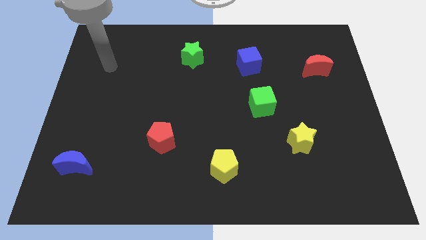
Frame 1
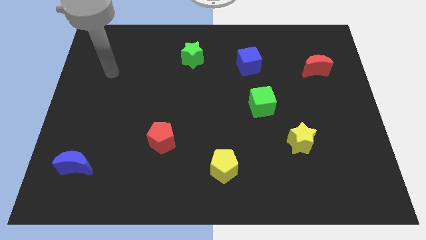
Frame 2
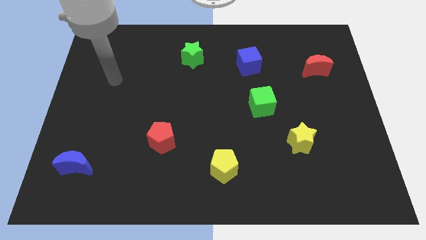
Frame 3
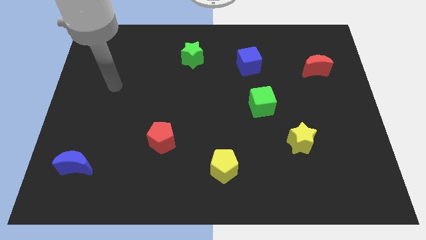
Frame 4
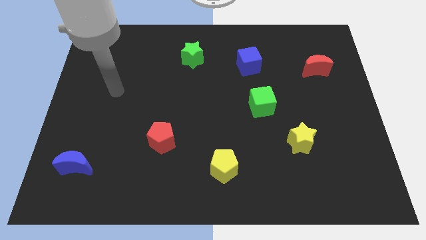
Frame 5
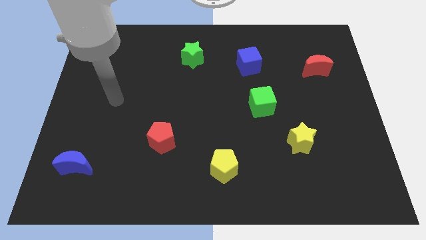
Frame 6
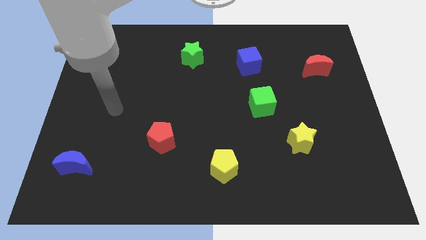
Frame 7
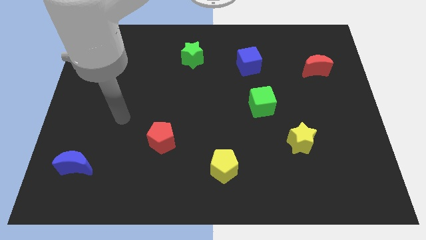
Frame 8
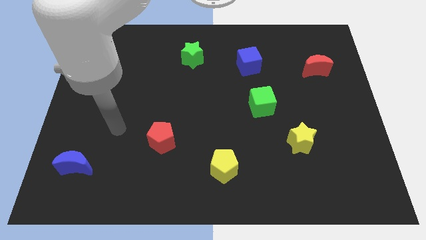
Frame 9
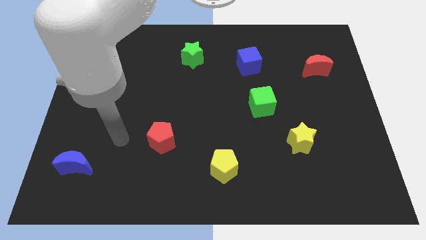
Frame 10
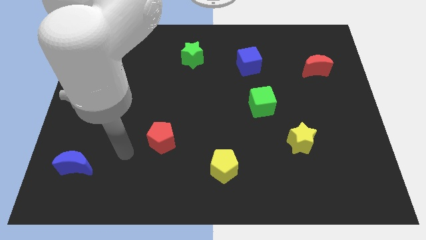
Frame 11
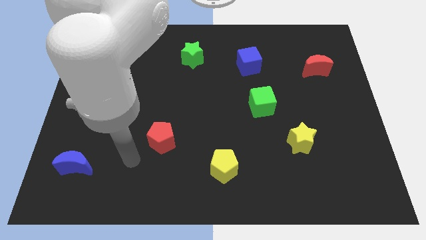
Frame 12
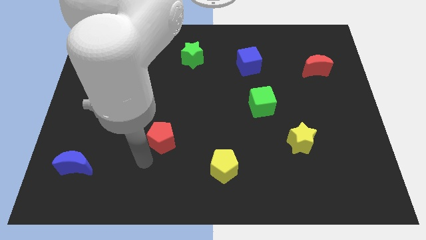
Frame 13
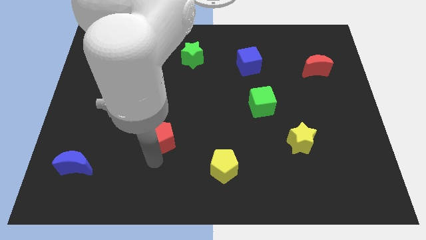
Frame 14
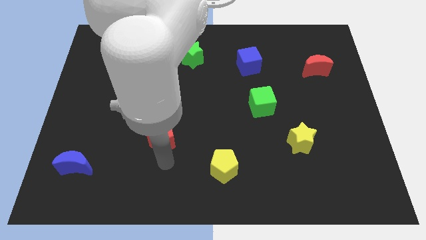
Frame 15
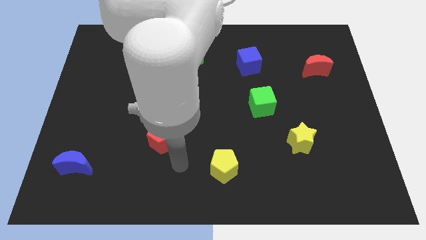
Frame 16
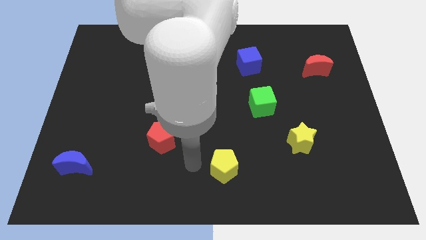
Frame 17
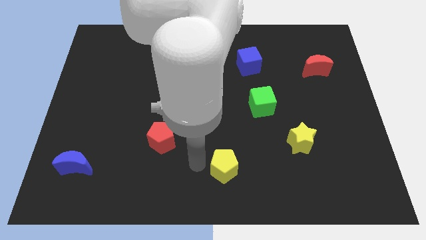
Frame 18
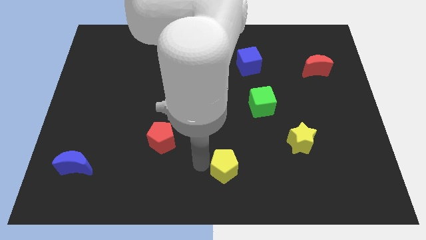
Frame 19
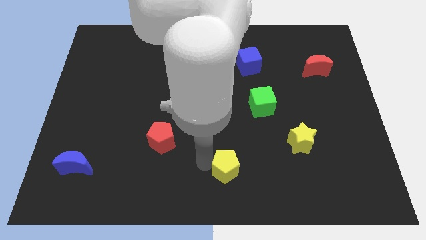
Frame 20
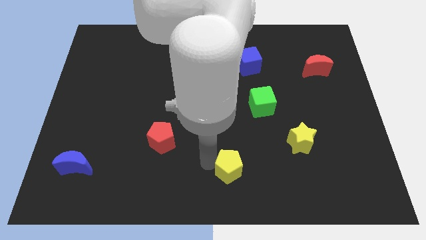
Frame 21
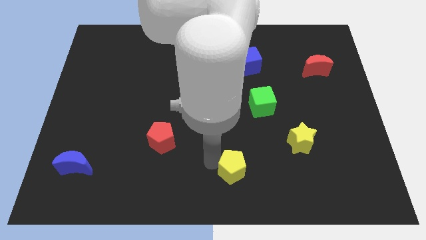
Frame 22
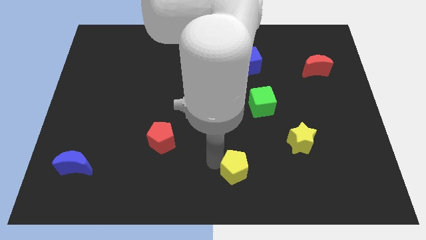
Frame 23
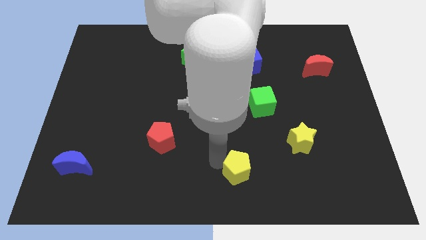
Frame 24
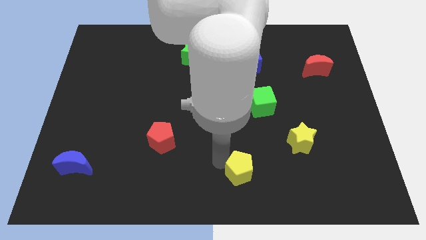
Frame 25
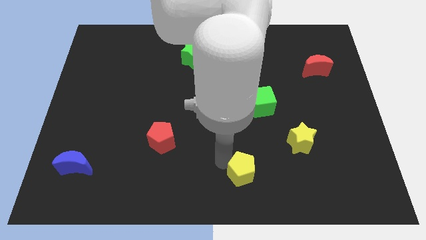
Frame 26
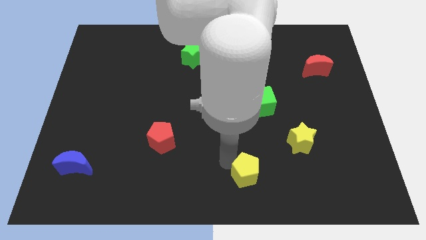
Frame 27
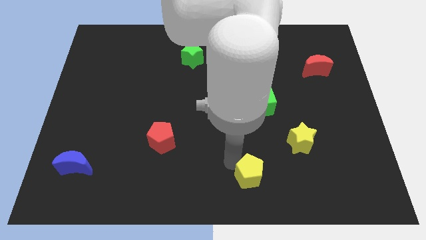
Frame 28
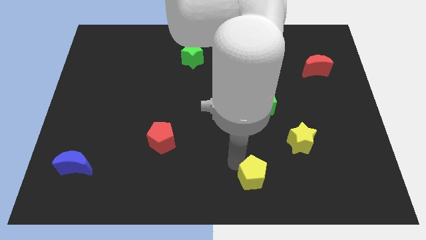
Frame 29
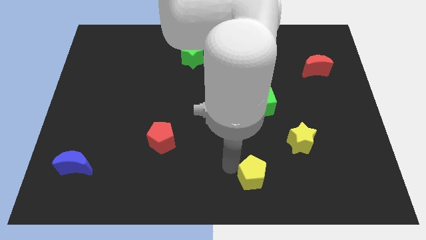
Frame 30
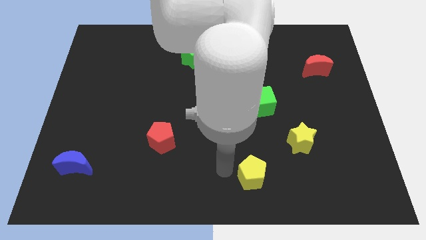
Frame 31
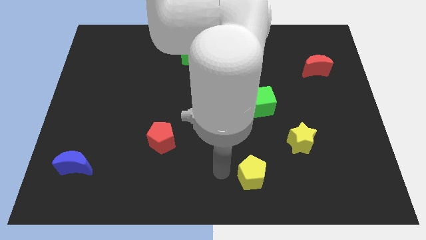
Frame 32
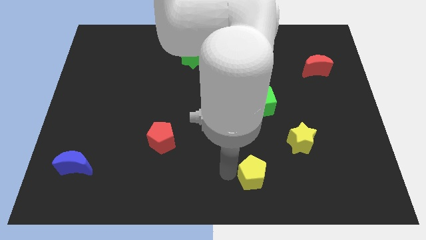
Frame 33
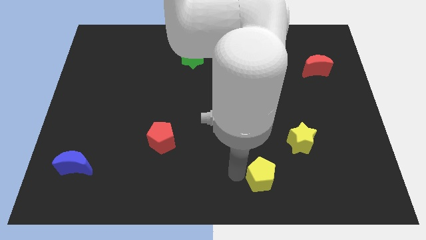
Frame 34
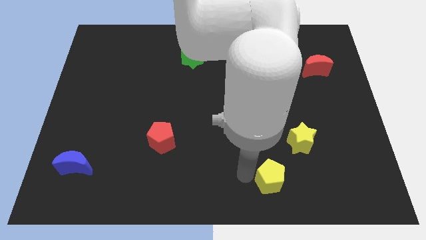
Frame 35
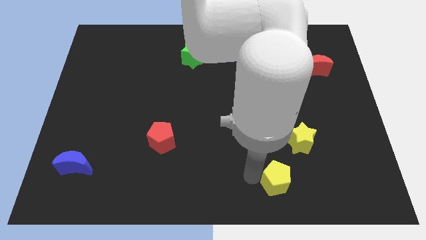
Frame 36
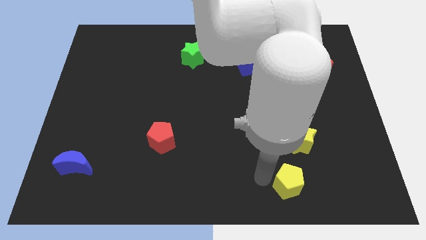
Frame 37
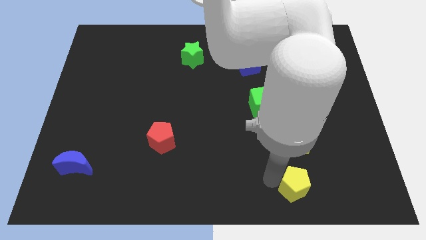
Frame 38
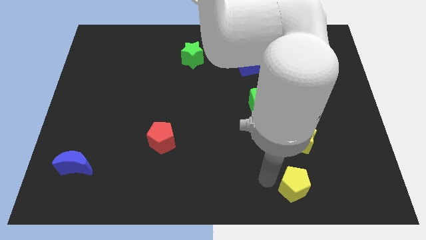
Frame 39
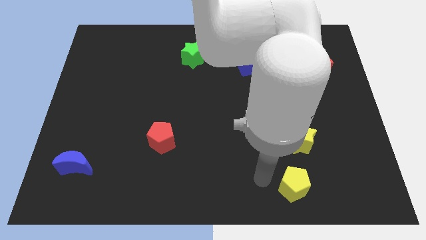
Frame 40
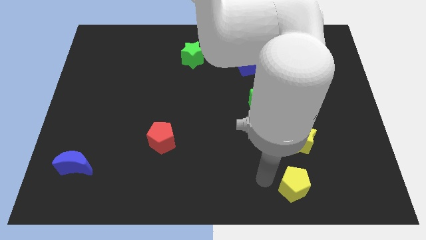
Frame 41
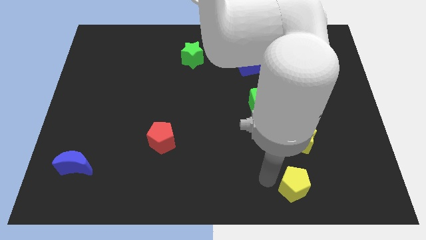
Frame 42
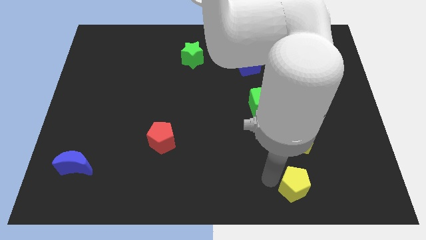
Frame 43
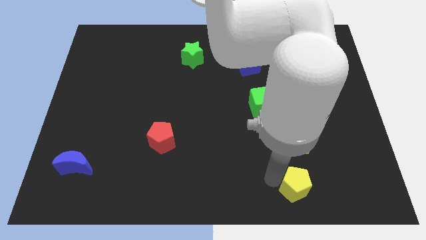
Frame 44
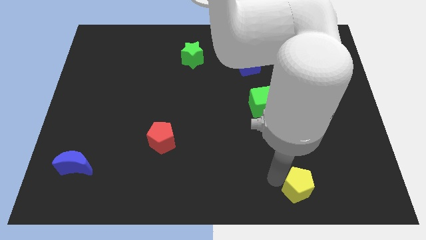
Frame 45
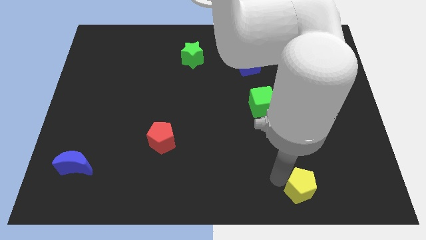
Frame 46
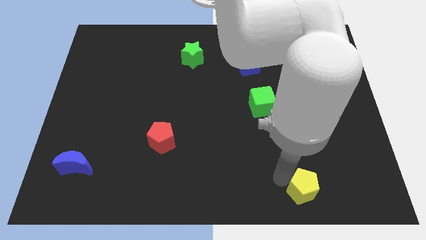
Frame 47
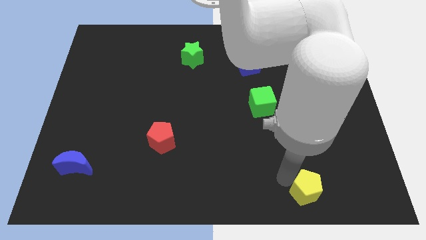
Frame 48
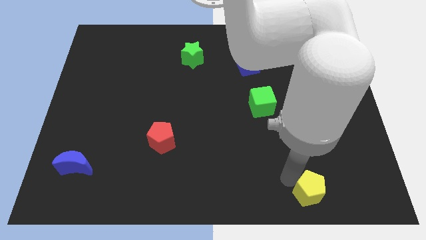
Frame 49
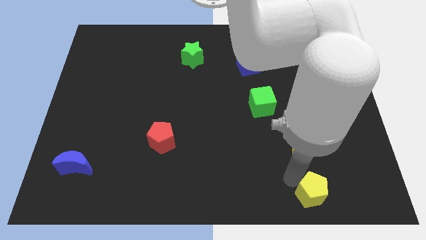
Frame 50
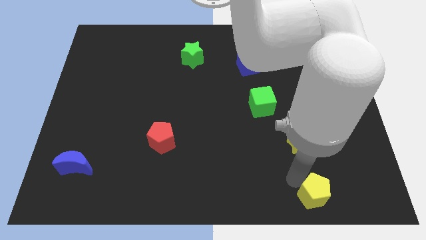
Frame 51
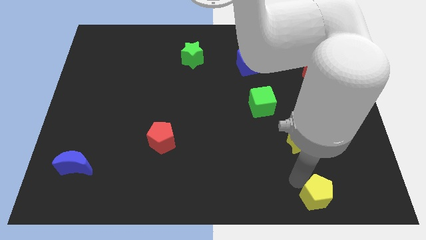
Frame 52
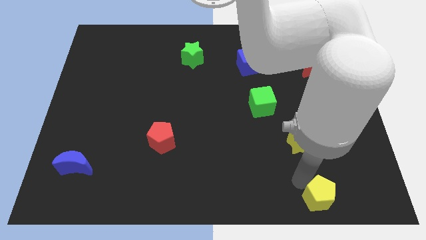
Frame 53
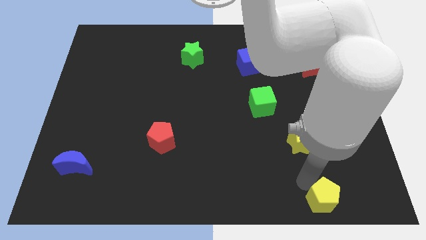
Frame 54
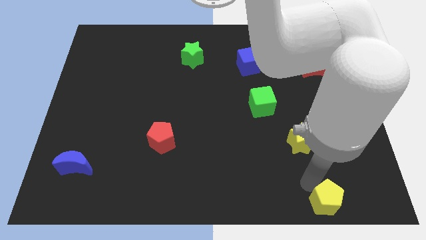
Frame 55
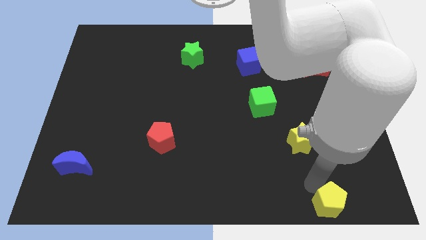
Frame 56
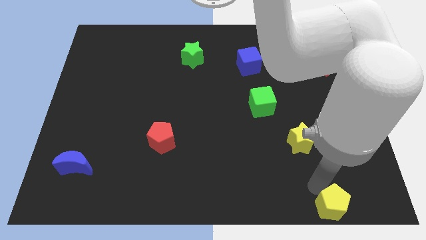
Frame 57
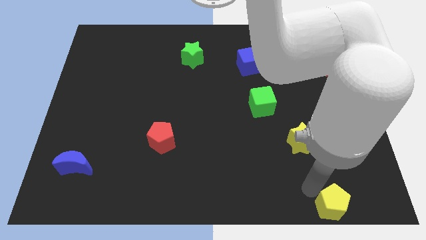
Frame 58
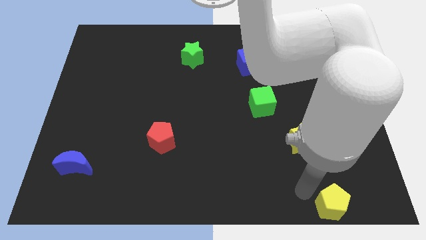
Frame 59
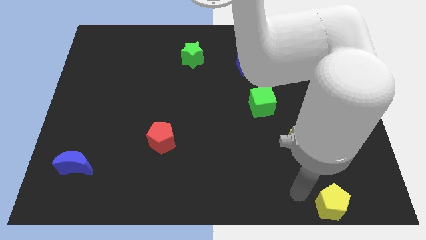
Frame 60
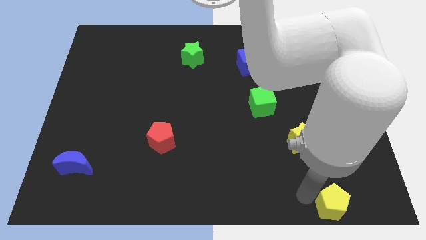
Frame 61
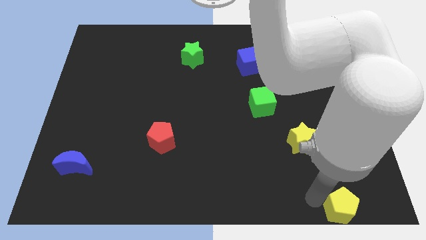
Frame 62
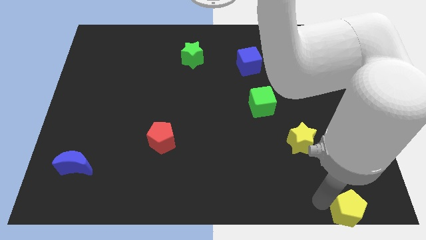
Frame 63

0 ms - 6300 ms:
slide the yellow pentagon to the bottom right
